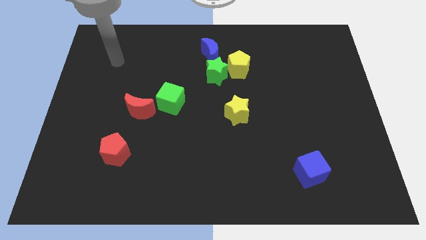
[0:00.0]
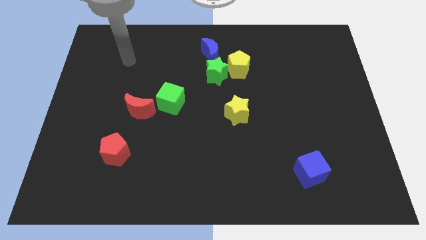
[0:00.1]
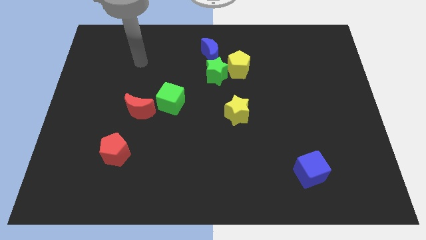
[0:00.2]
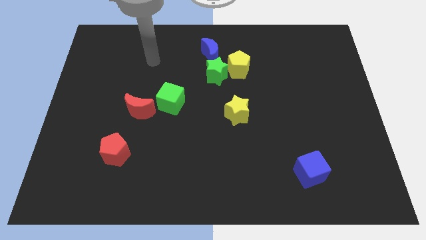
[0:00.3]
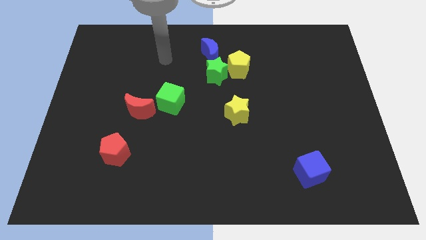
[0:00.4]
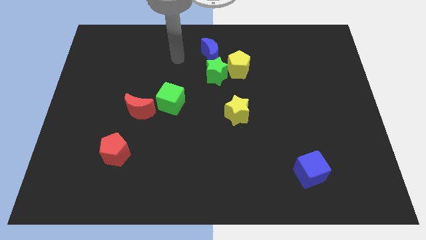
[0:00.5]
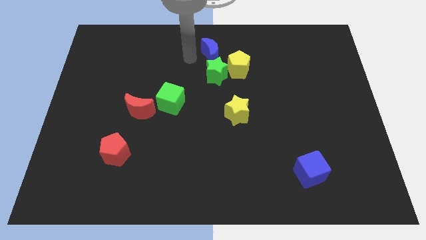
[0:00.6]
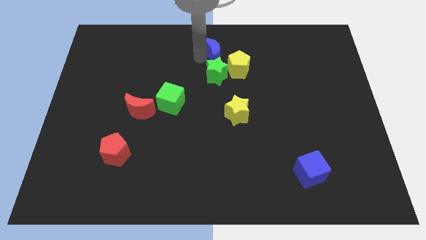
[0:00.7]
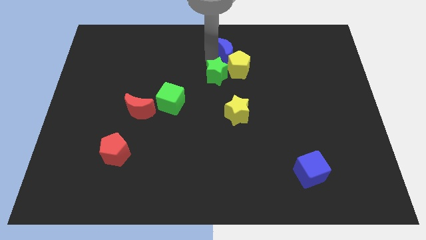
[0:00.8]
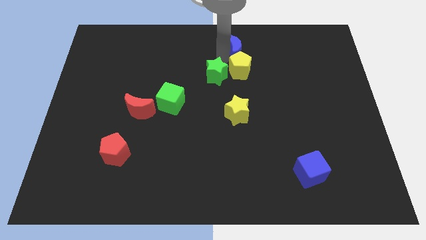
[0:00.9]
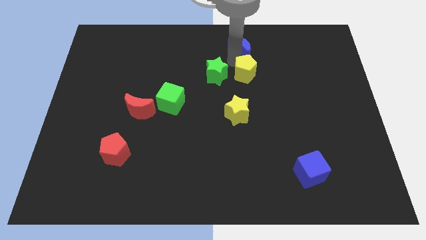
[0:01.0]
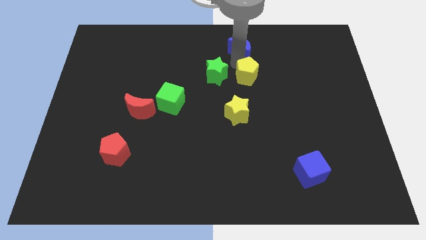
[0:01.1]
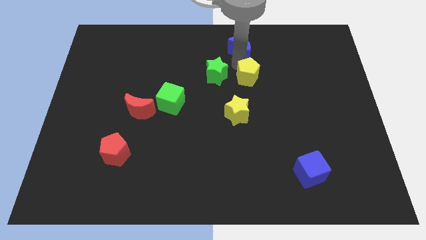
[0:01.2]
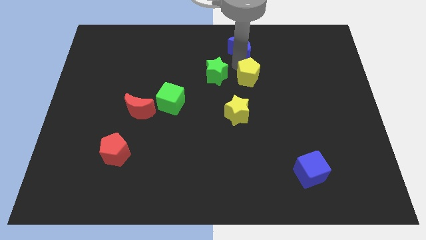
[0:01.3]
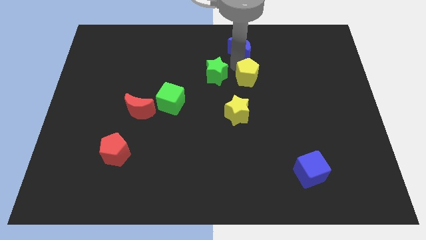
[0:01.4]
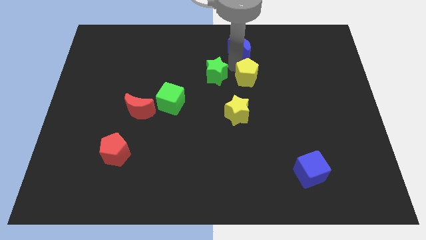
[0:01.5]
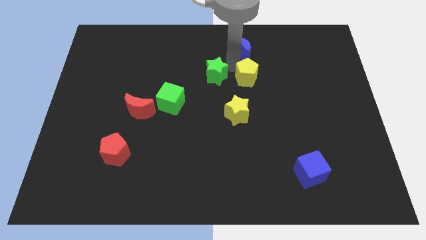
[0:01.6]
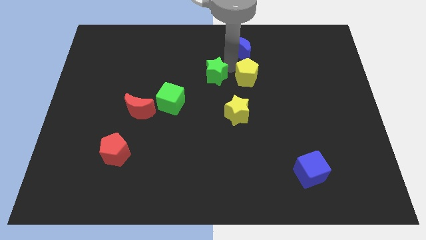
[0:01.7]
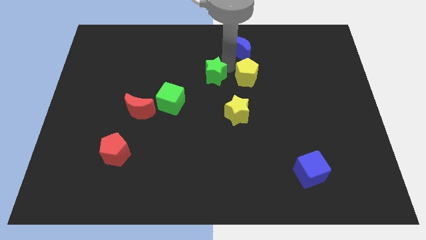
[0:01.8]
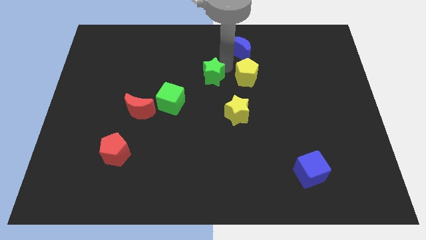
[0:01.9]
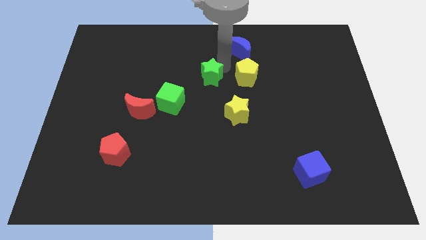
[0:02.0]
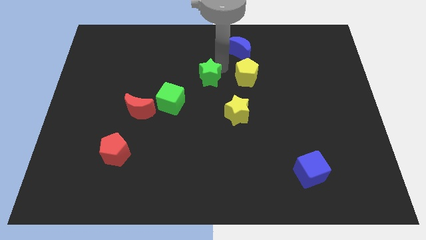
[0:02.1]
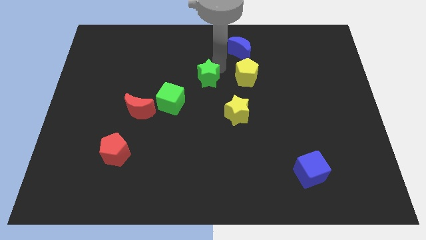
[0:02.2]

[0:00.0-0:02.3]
move the green star away from the yellow pentagon and blue moon

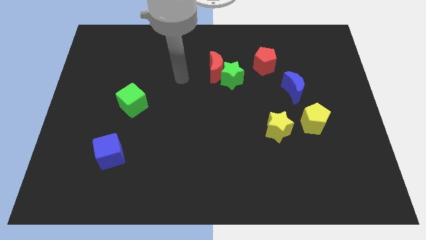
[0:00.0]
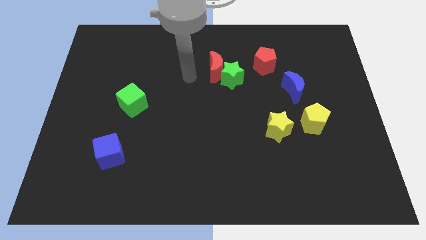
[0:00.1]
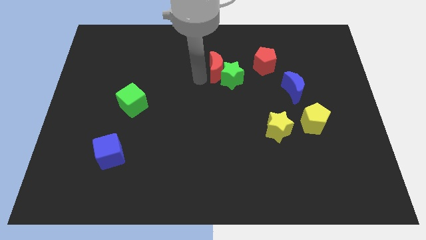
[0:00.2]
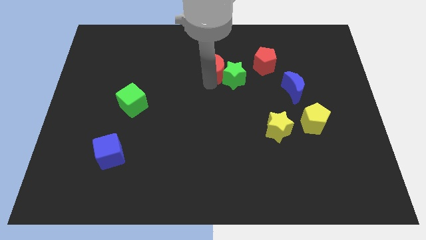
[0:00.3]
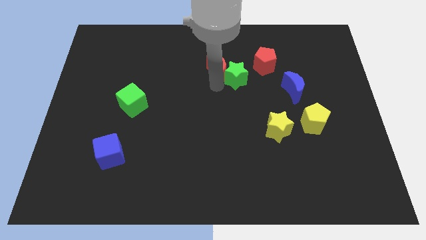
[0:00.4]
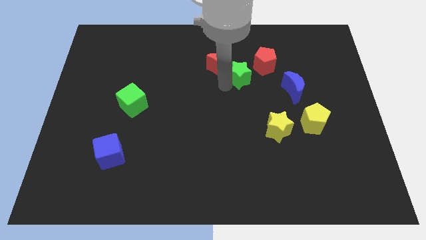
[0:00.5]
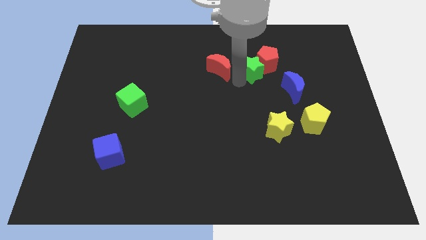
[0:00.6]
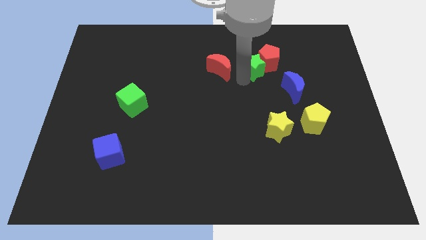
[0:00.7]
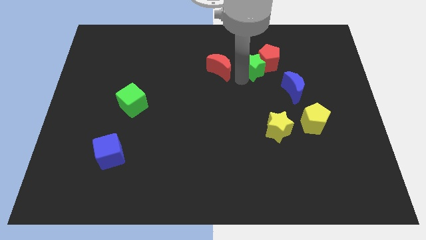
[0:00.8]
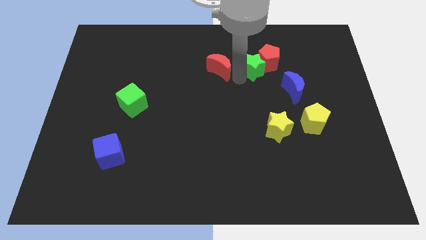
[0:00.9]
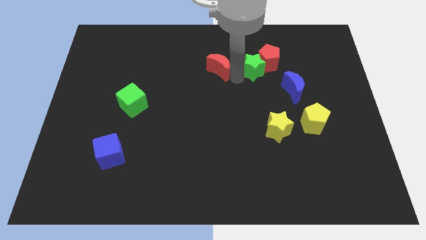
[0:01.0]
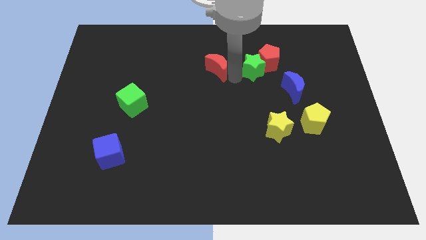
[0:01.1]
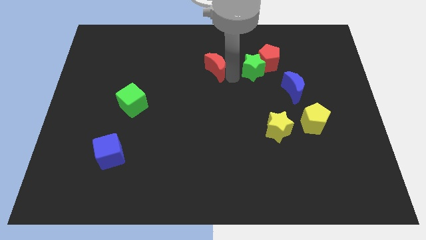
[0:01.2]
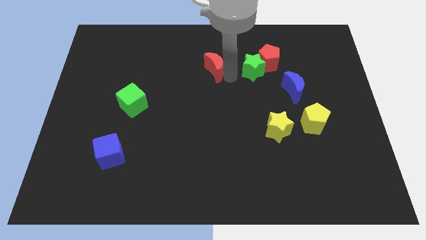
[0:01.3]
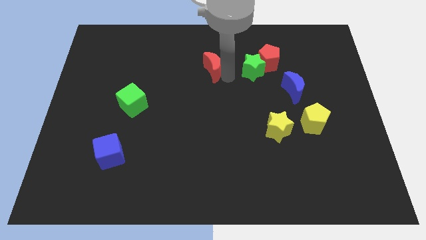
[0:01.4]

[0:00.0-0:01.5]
move the red moon away from the green star

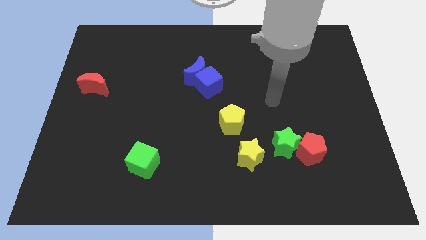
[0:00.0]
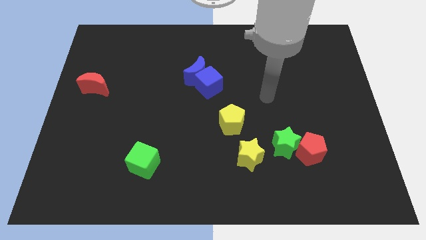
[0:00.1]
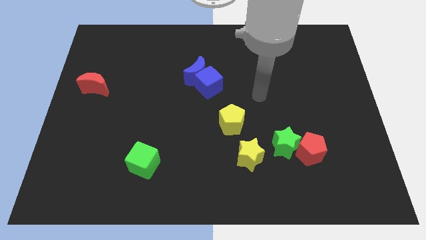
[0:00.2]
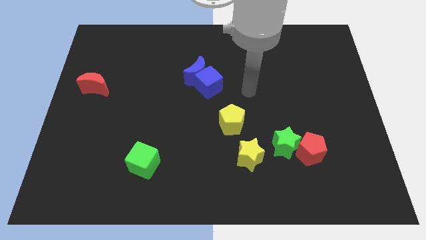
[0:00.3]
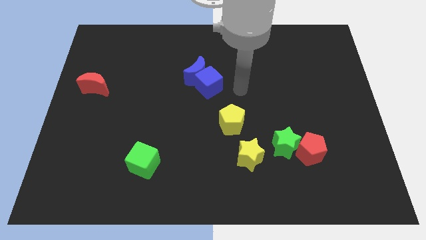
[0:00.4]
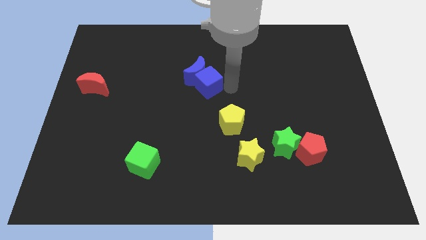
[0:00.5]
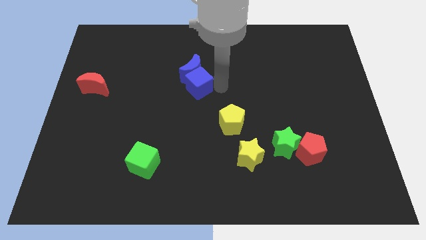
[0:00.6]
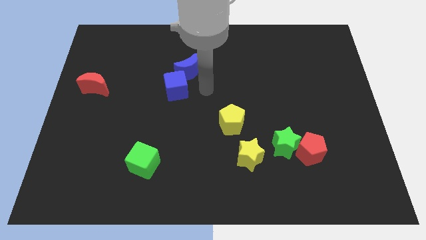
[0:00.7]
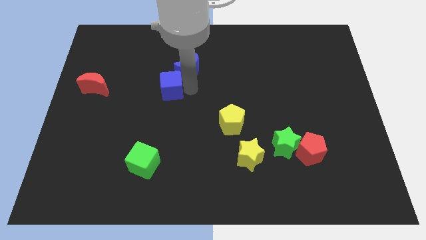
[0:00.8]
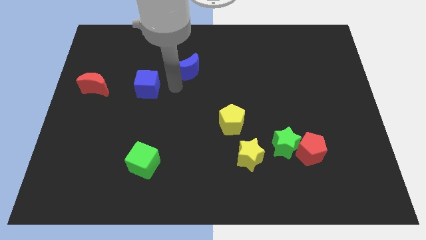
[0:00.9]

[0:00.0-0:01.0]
pull the blue moon apart from the blue cube

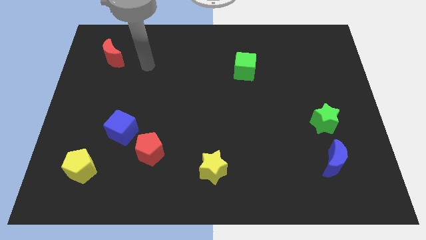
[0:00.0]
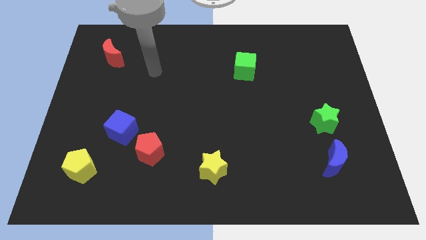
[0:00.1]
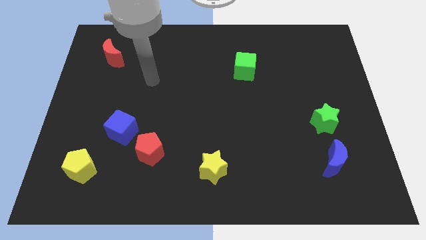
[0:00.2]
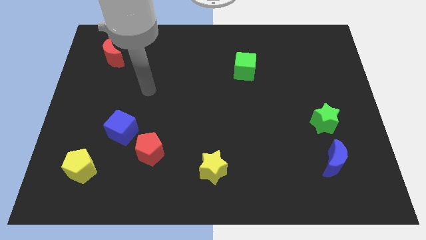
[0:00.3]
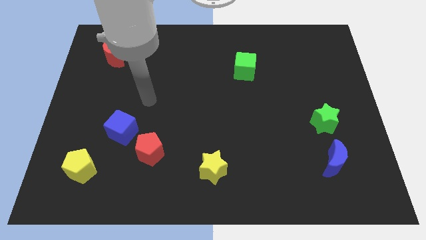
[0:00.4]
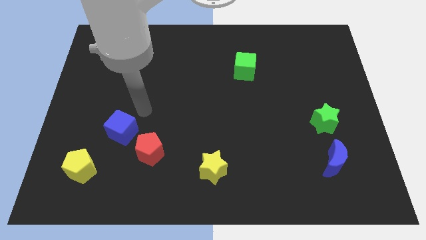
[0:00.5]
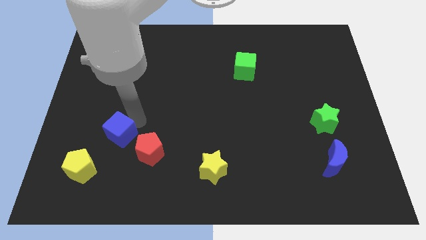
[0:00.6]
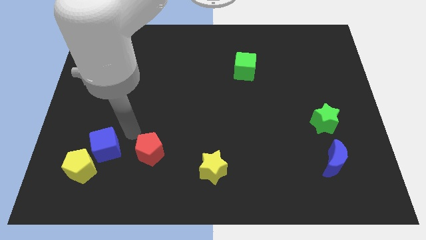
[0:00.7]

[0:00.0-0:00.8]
pull the red pentagon apart from the blue cube

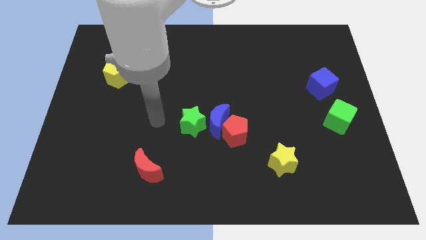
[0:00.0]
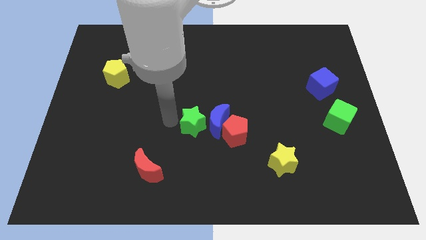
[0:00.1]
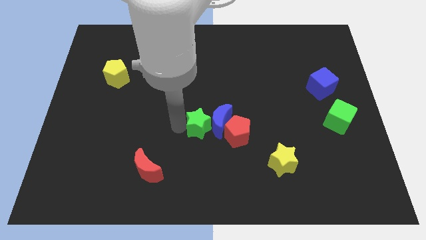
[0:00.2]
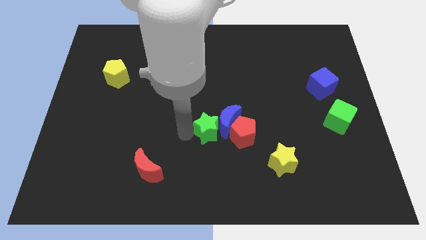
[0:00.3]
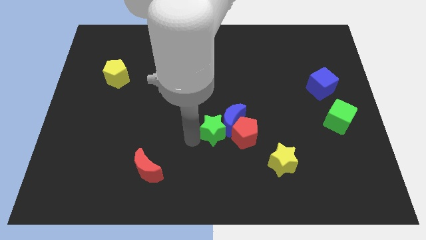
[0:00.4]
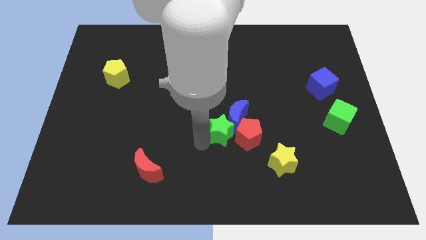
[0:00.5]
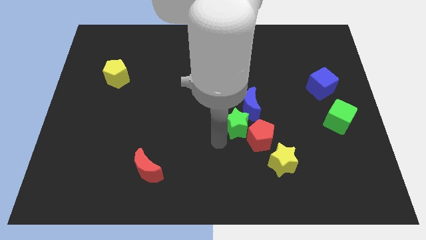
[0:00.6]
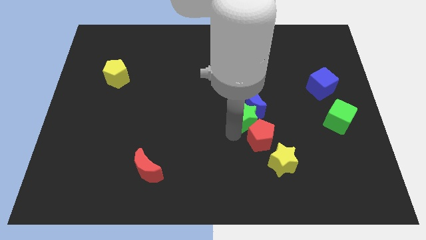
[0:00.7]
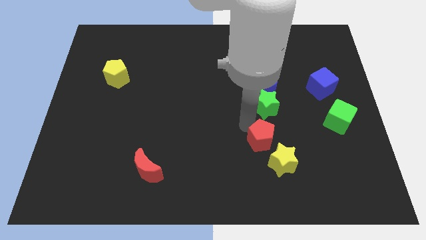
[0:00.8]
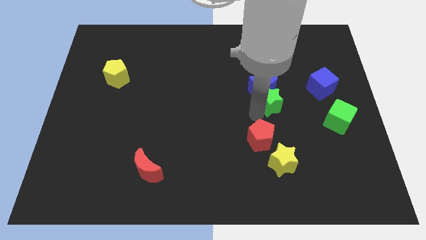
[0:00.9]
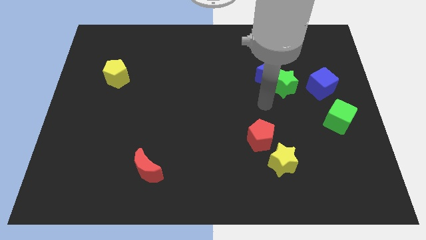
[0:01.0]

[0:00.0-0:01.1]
pull the blue moon apart from the red pentagon and green star

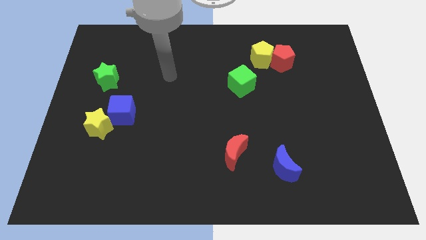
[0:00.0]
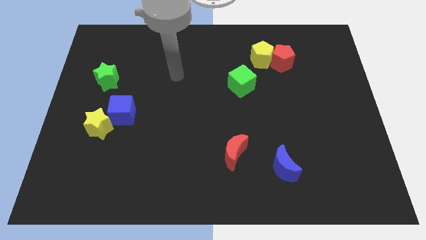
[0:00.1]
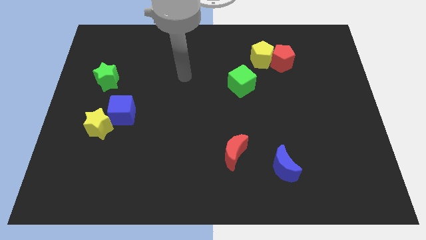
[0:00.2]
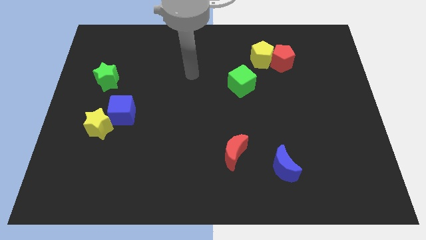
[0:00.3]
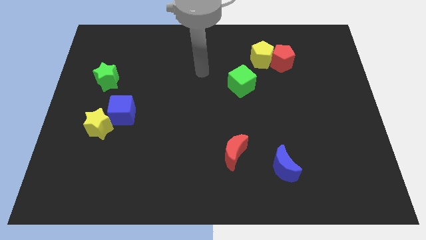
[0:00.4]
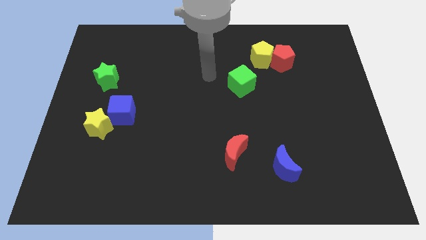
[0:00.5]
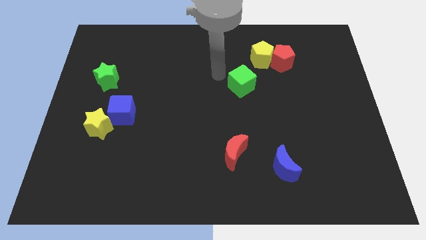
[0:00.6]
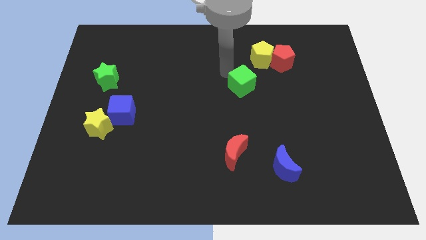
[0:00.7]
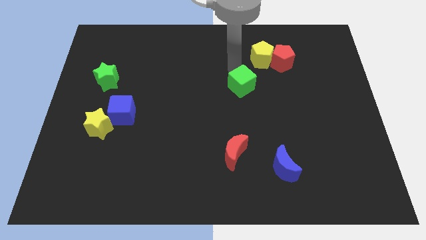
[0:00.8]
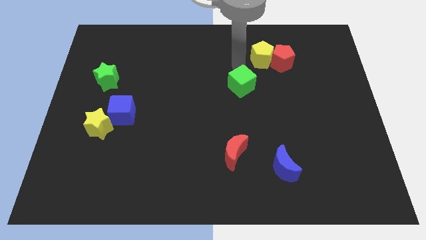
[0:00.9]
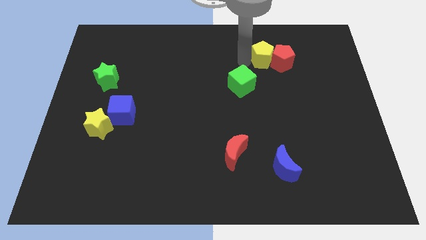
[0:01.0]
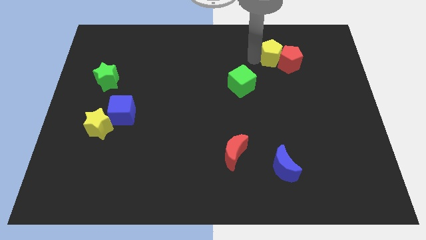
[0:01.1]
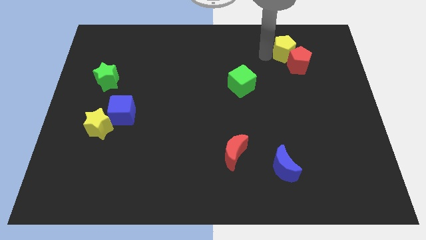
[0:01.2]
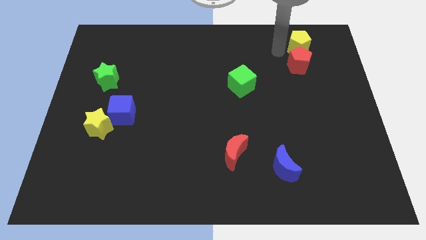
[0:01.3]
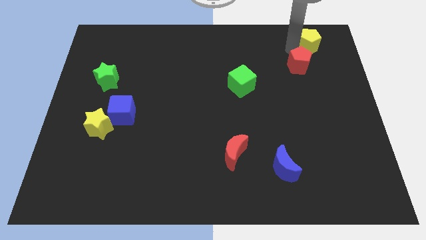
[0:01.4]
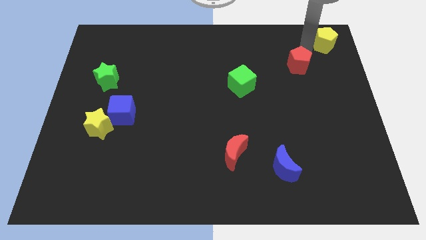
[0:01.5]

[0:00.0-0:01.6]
pull the red pentagon apart from the yellow pentagon

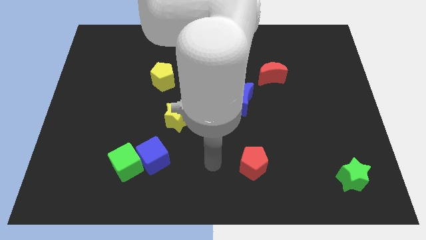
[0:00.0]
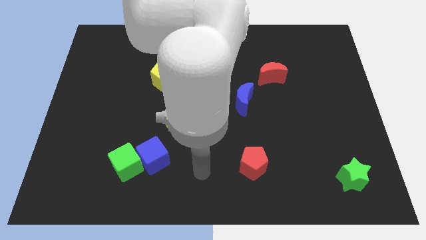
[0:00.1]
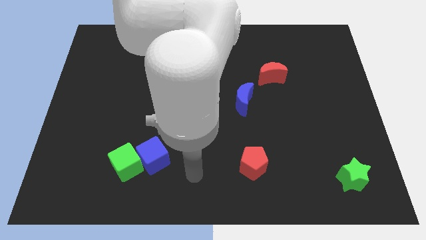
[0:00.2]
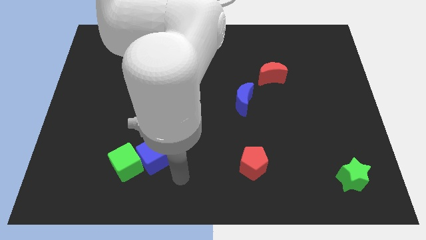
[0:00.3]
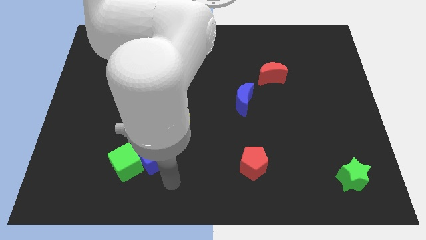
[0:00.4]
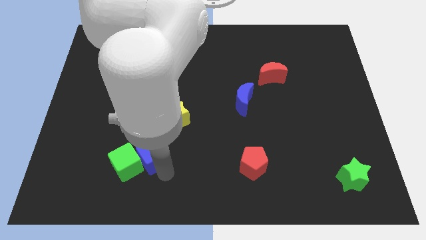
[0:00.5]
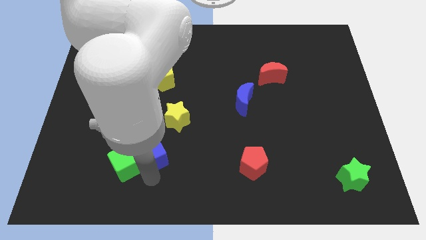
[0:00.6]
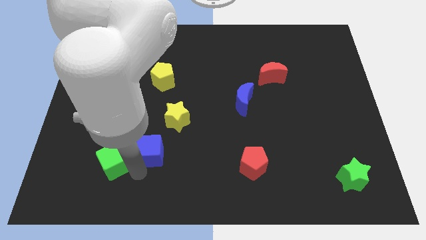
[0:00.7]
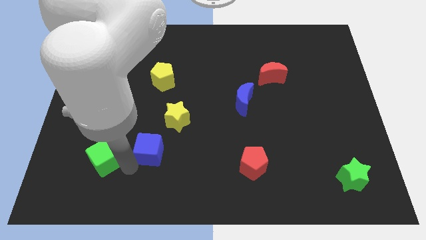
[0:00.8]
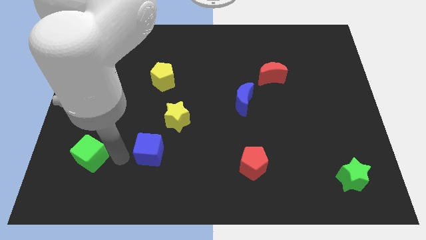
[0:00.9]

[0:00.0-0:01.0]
pull the blue cube apart from the green cube
